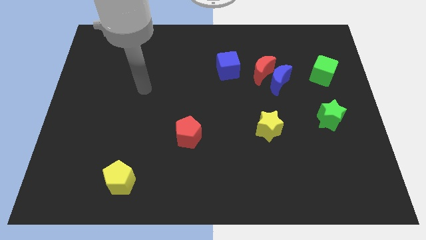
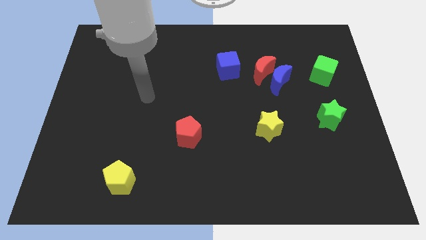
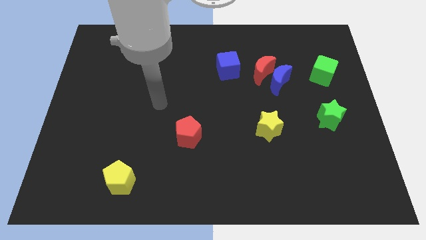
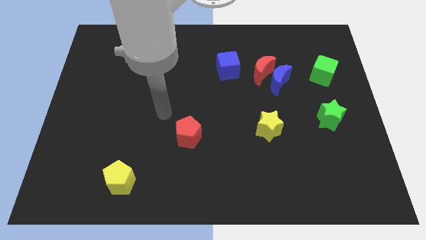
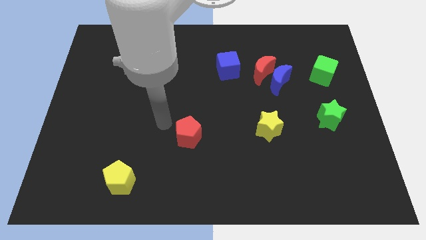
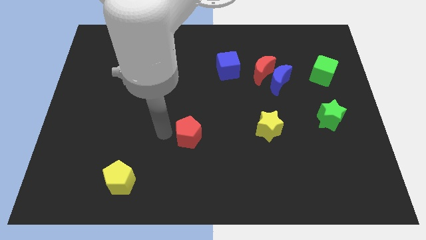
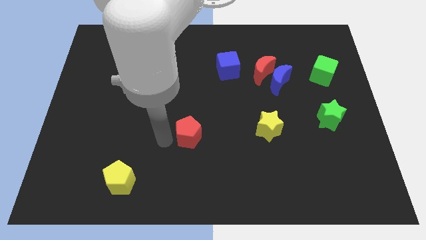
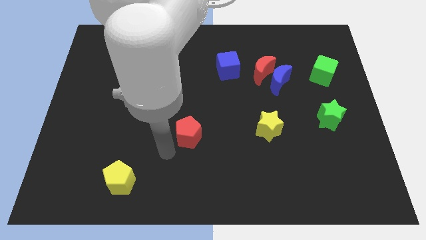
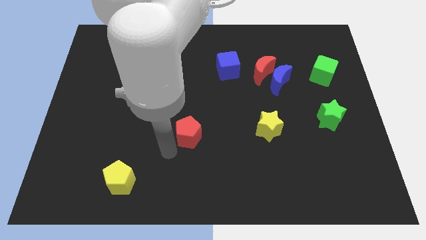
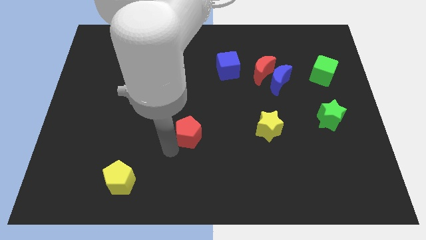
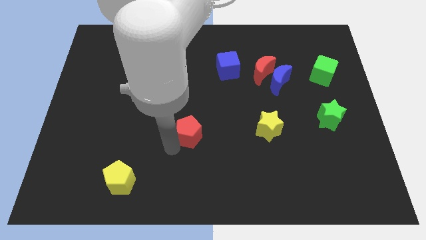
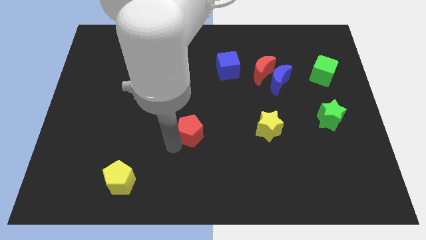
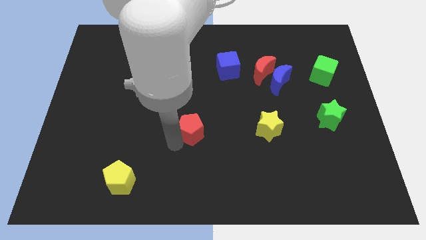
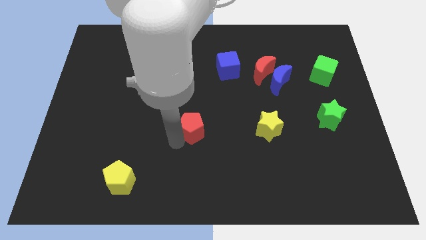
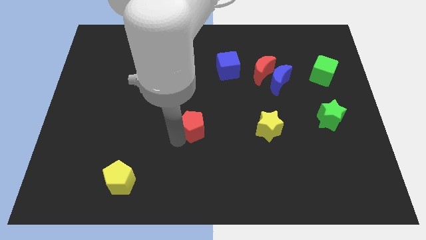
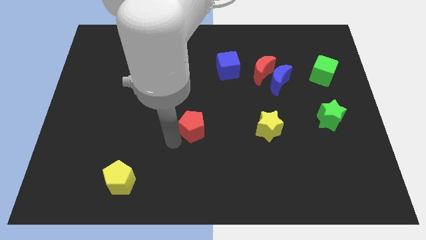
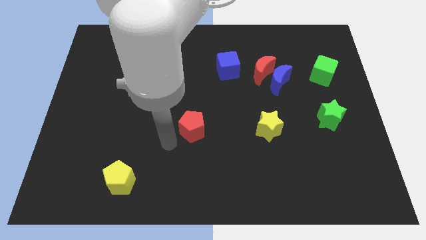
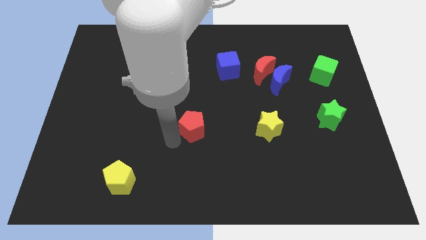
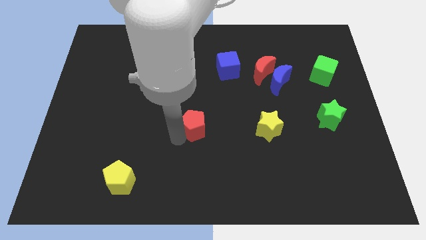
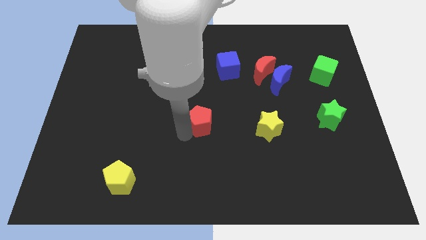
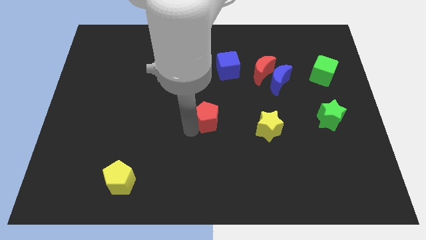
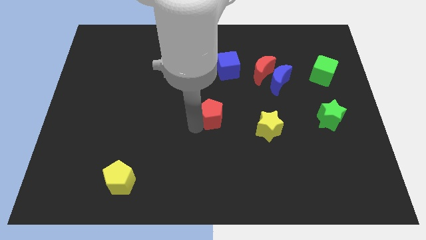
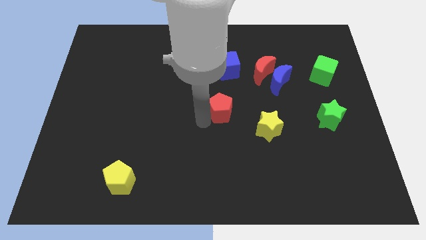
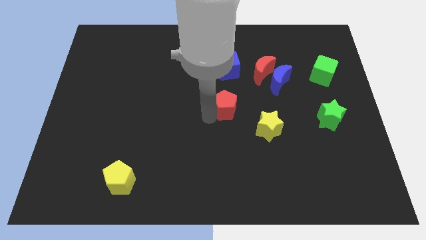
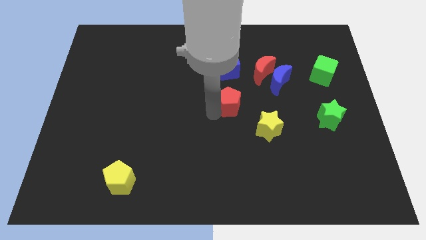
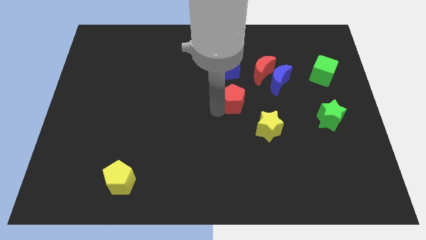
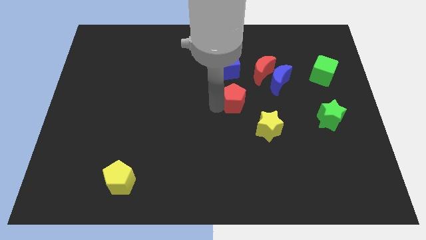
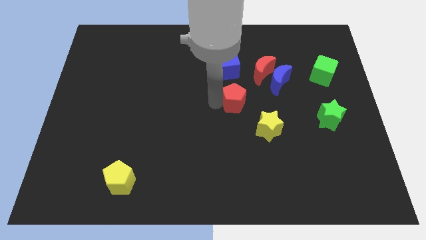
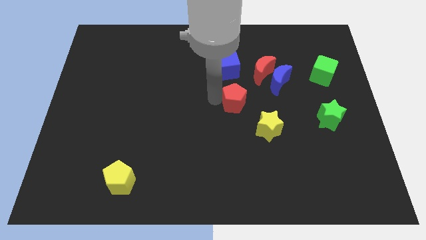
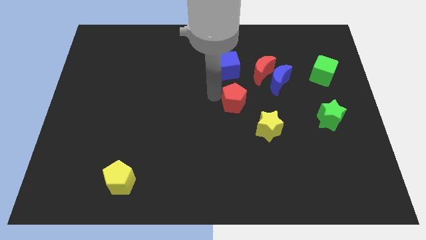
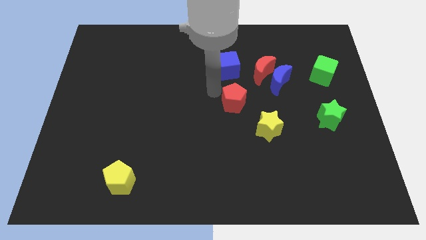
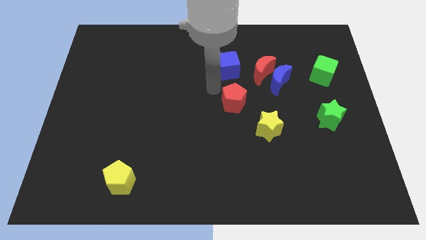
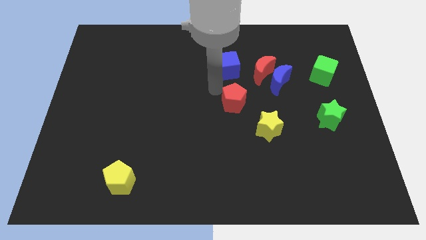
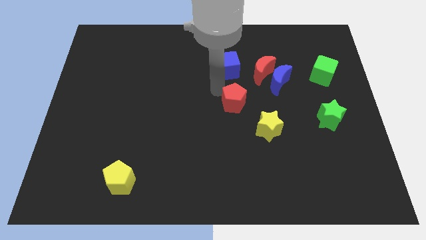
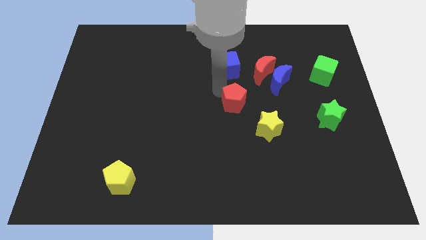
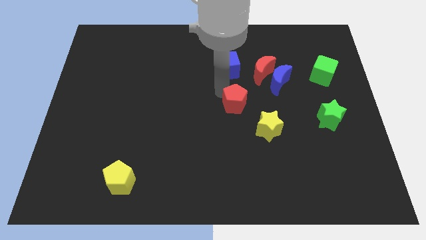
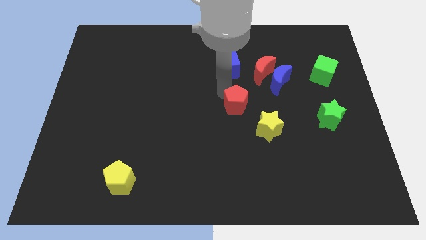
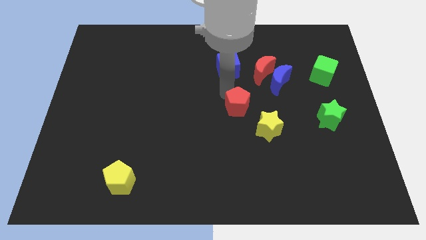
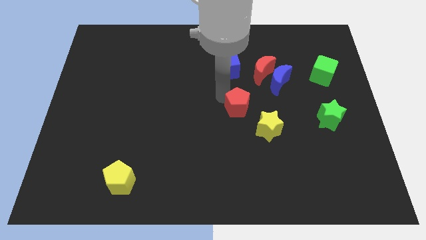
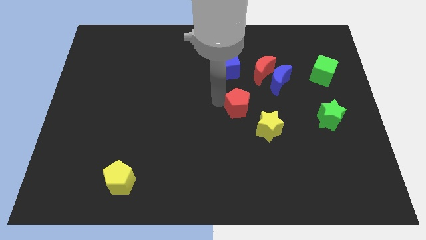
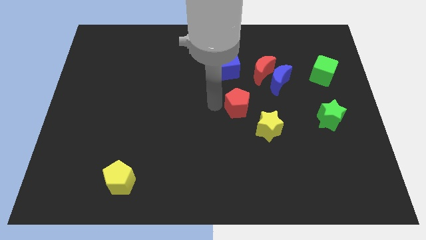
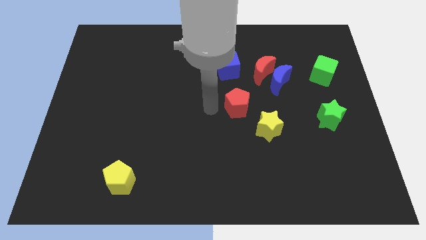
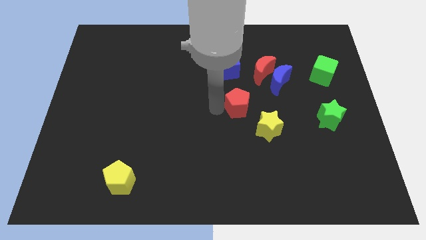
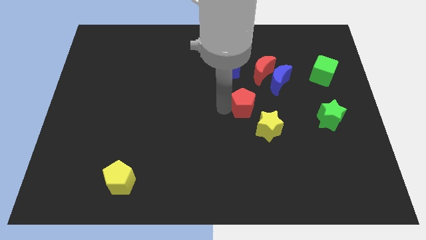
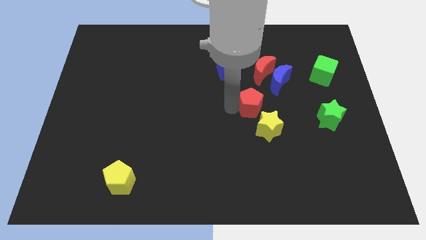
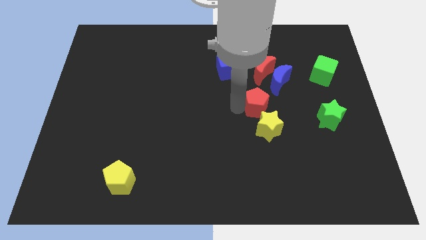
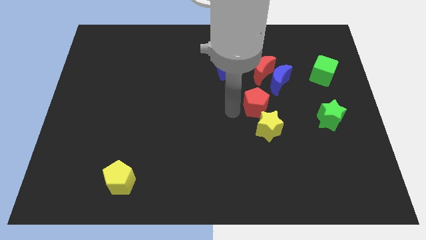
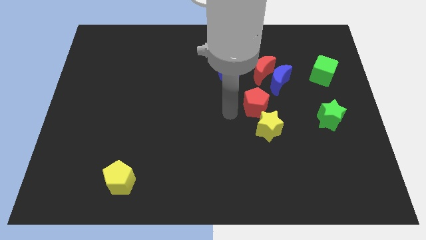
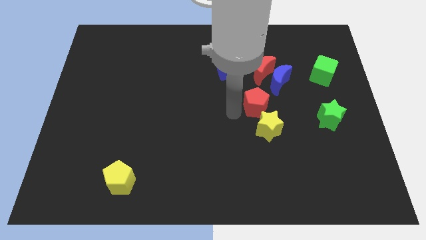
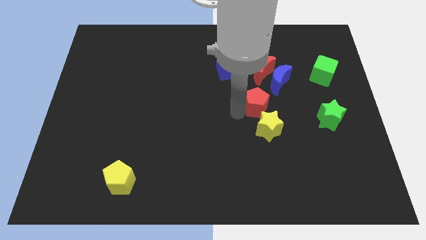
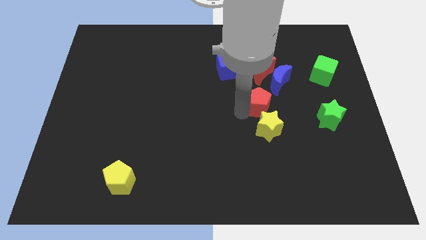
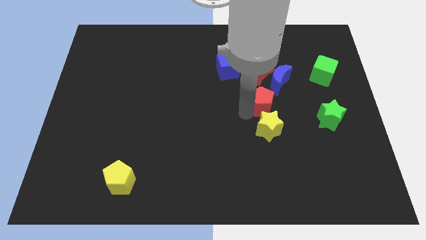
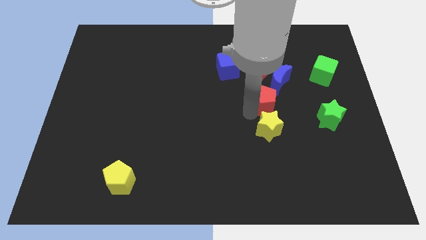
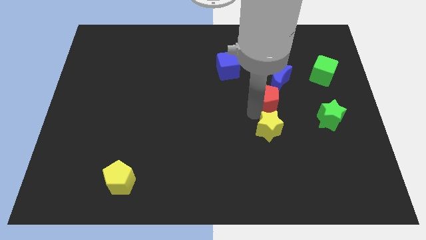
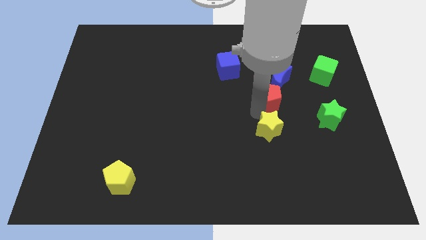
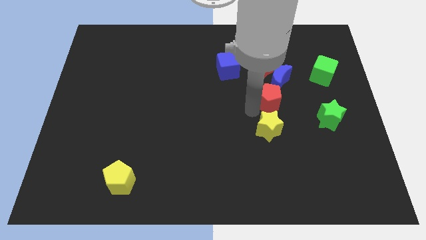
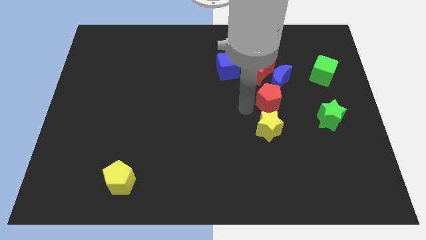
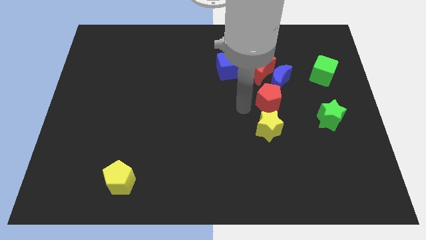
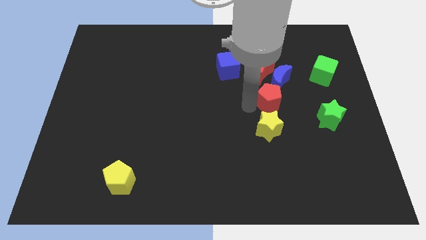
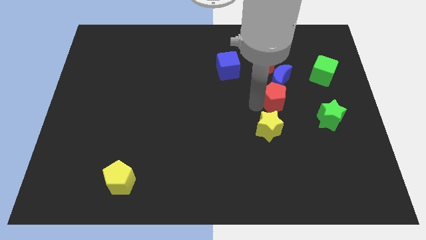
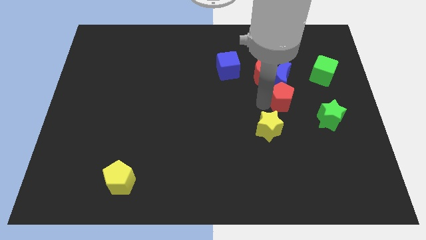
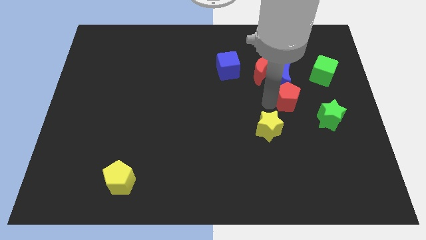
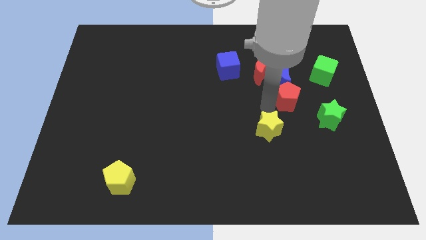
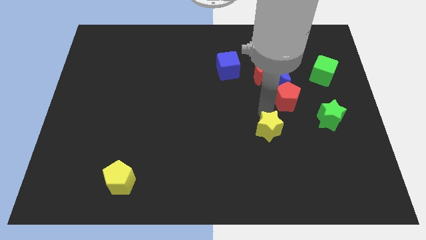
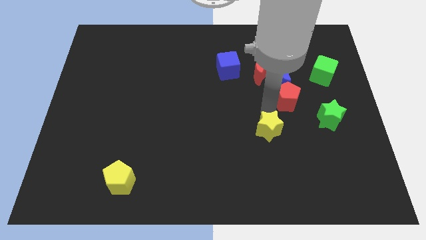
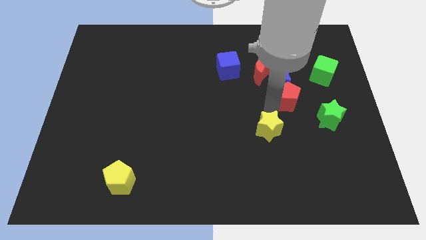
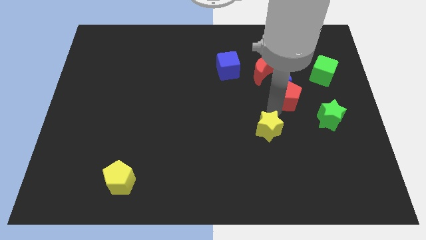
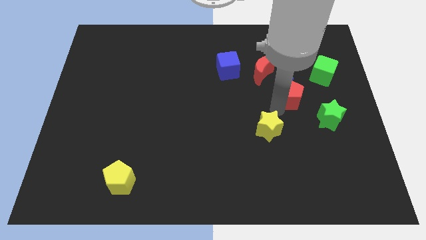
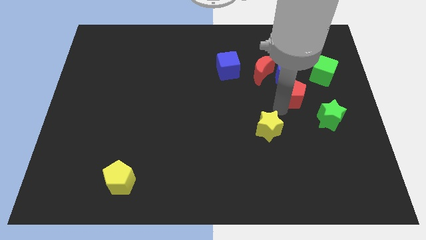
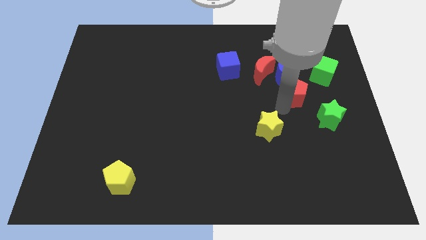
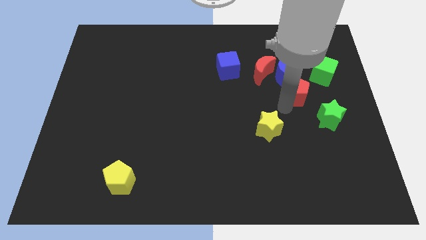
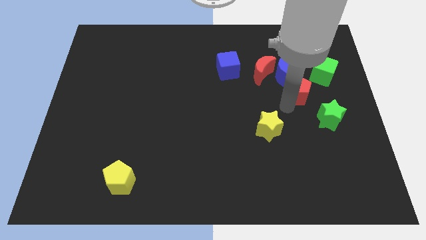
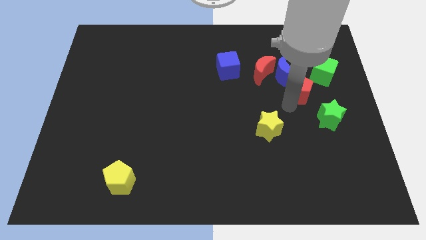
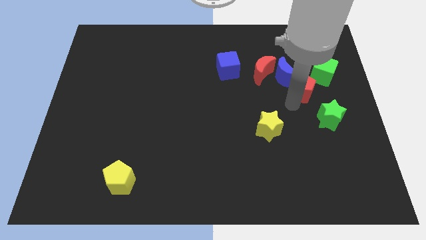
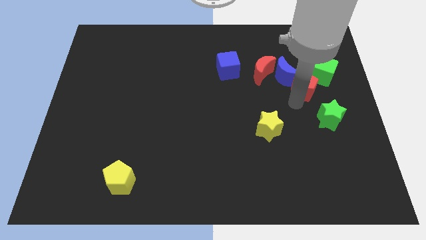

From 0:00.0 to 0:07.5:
slide the red pentagon to the right of the blue moon

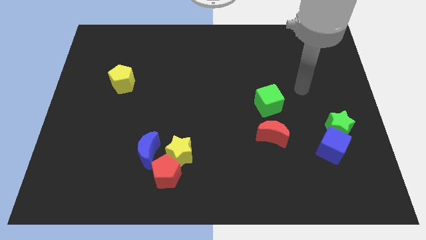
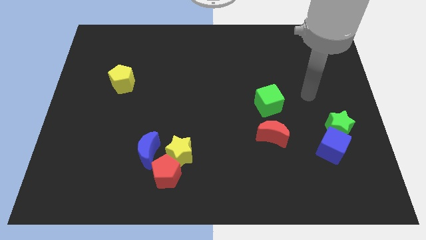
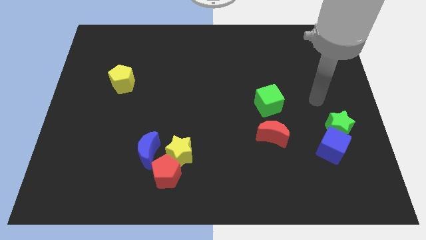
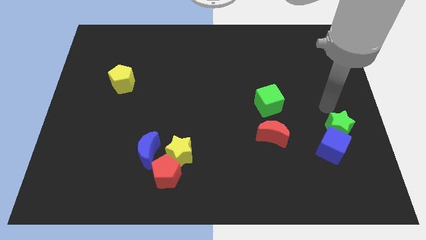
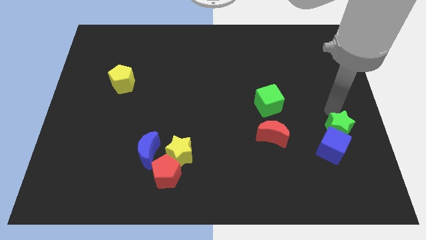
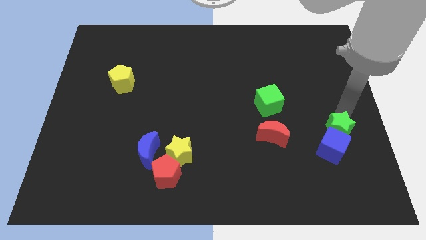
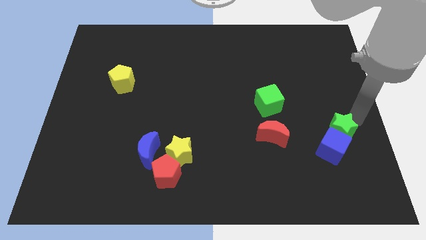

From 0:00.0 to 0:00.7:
put the blue cube to the left of the green star
